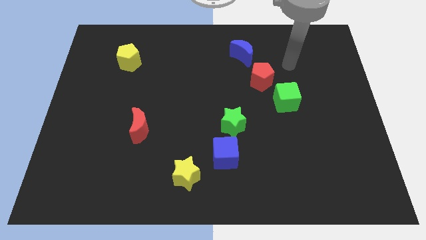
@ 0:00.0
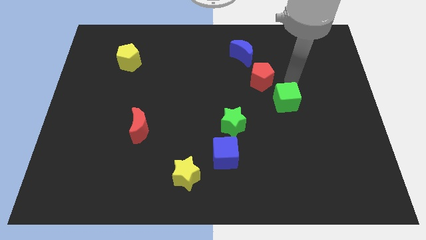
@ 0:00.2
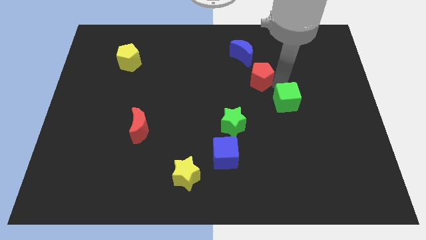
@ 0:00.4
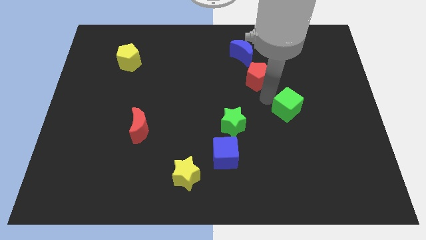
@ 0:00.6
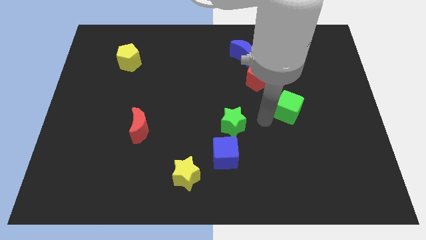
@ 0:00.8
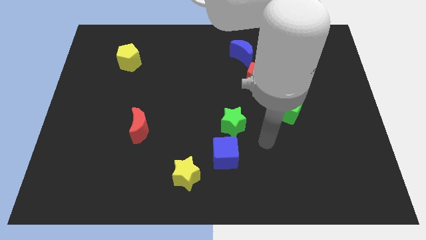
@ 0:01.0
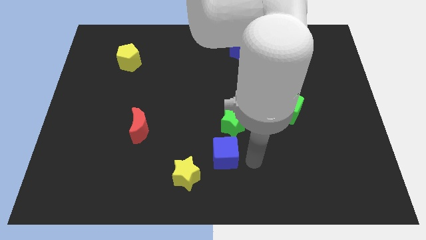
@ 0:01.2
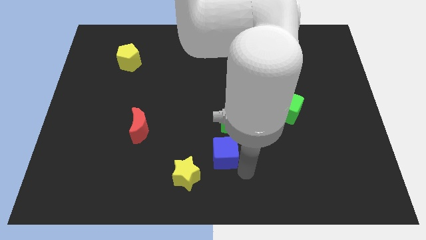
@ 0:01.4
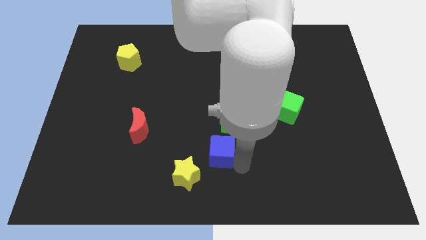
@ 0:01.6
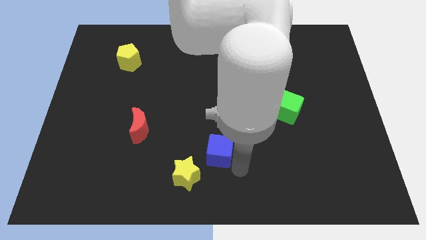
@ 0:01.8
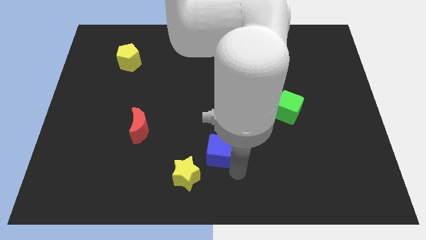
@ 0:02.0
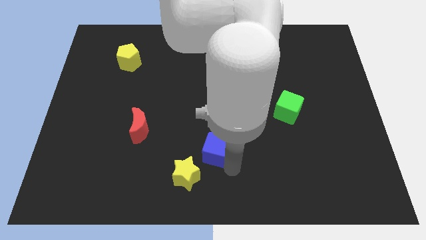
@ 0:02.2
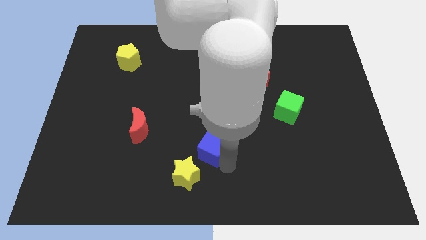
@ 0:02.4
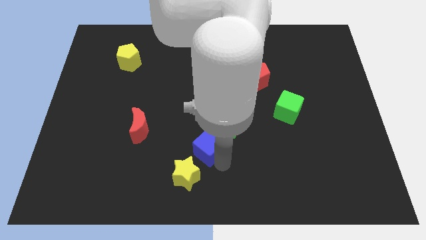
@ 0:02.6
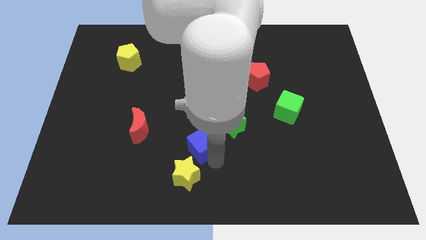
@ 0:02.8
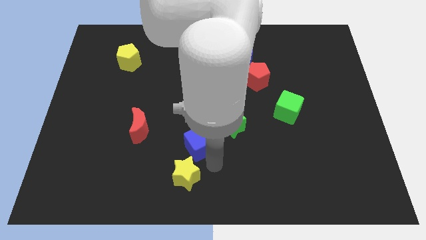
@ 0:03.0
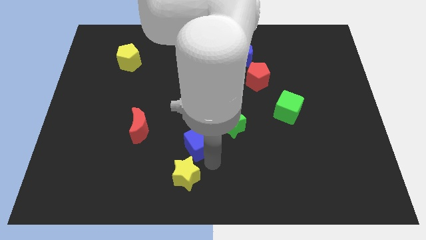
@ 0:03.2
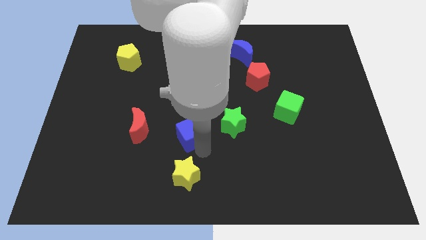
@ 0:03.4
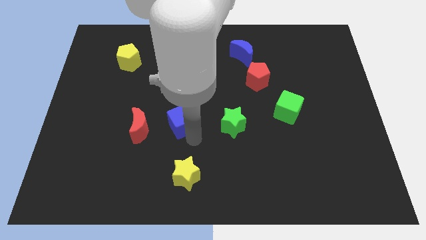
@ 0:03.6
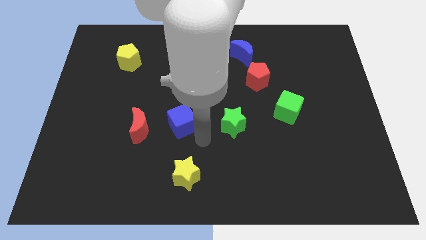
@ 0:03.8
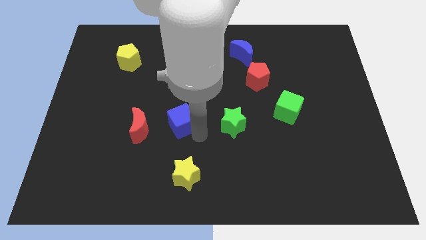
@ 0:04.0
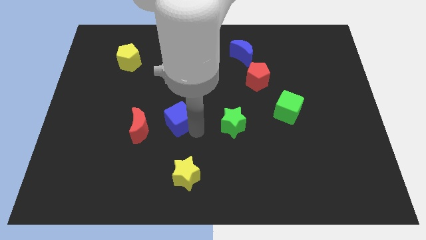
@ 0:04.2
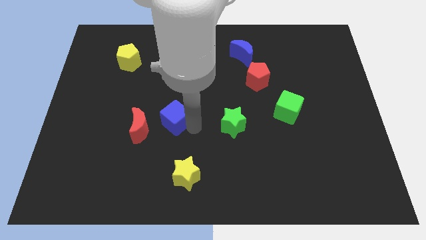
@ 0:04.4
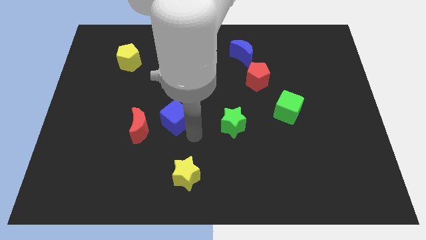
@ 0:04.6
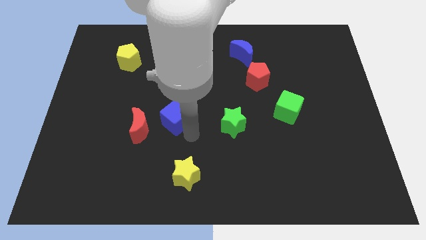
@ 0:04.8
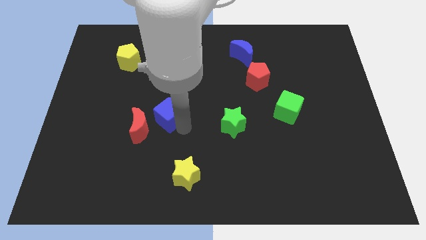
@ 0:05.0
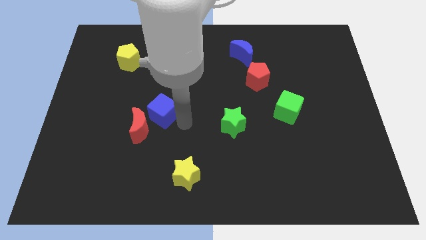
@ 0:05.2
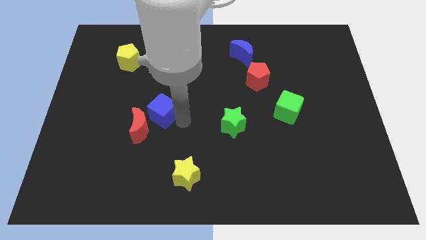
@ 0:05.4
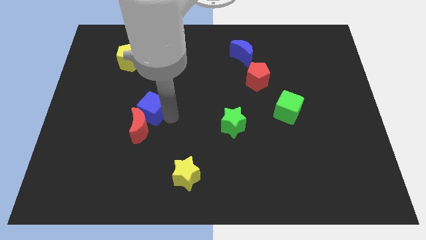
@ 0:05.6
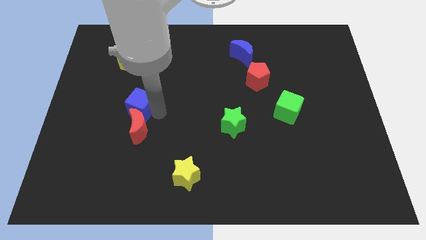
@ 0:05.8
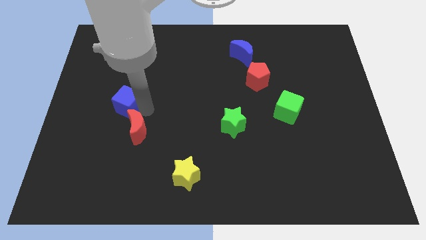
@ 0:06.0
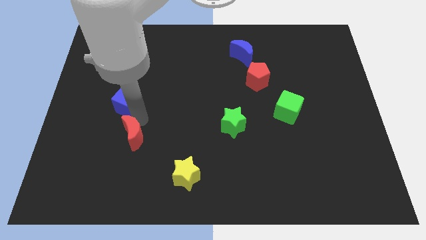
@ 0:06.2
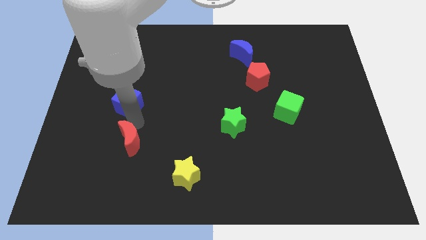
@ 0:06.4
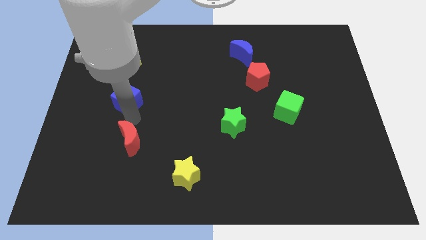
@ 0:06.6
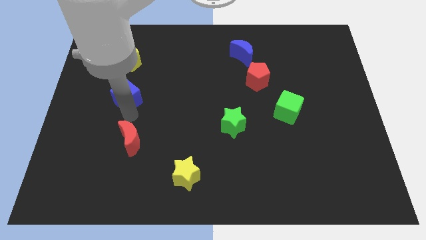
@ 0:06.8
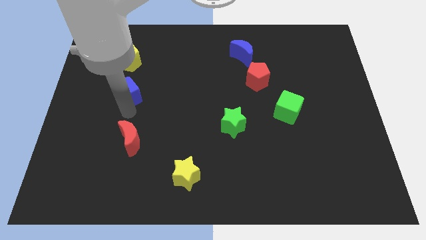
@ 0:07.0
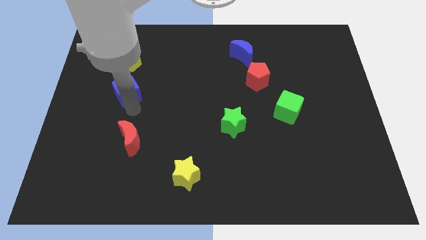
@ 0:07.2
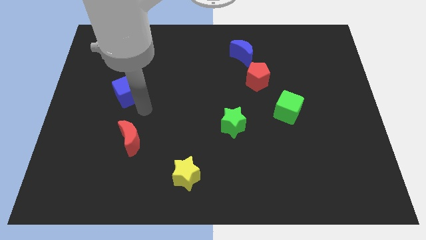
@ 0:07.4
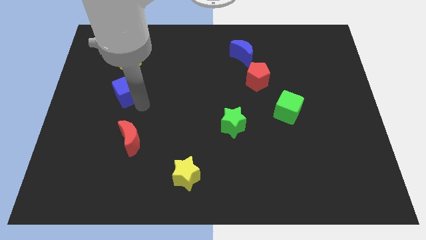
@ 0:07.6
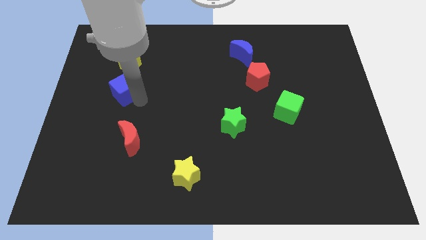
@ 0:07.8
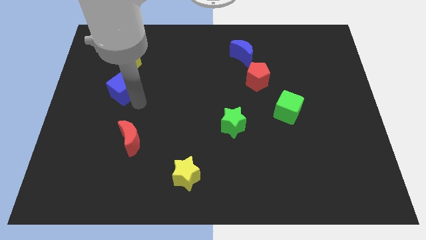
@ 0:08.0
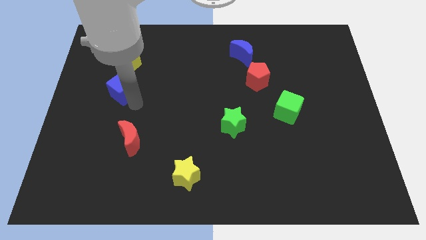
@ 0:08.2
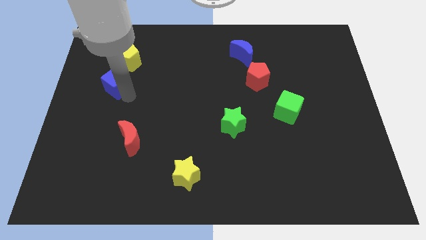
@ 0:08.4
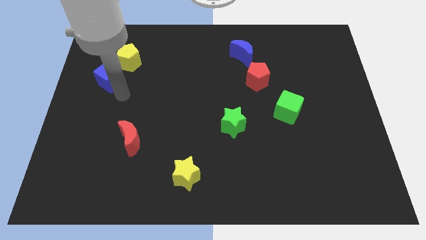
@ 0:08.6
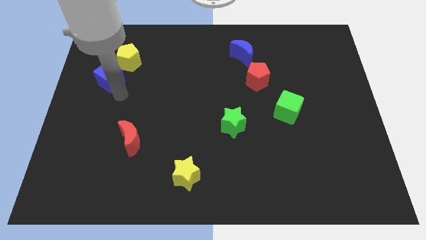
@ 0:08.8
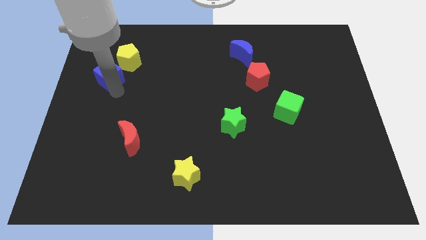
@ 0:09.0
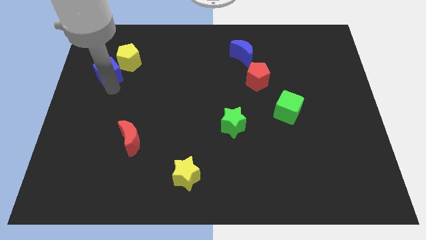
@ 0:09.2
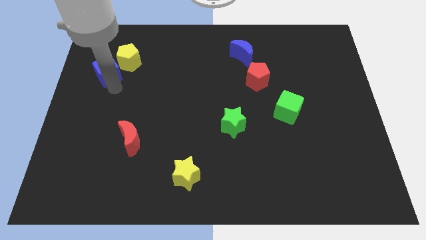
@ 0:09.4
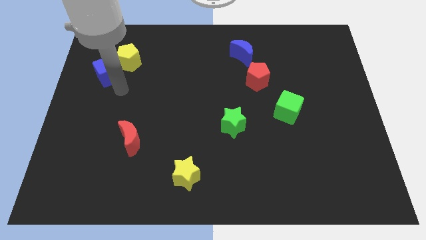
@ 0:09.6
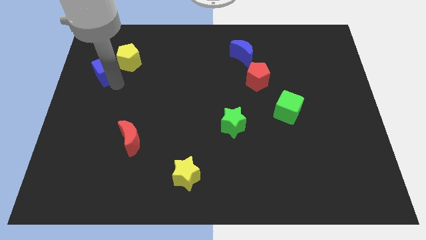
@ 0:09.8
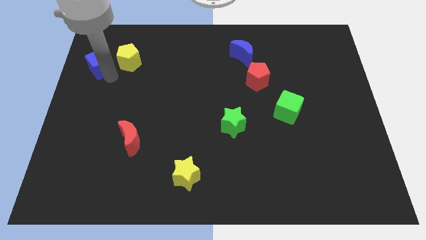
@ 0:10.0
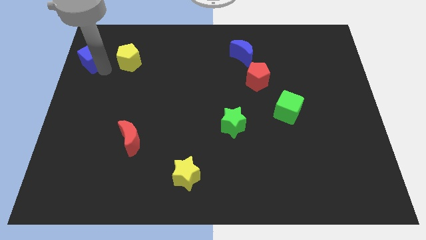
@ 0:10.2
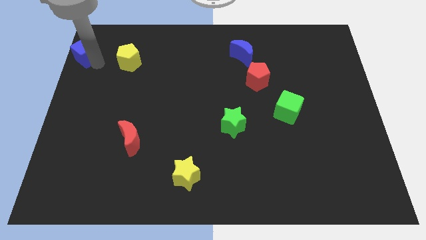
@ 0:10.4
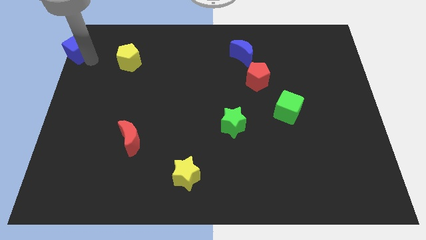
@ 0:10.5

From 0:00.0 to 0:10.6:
push the blue cube to the top left corner

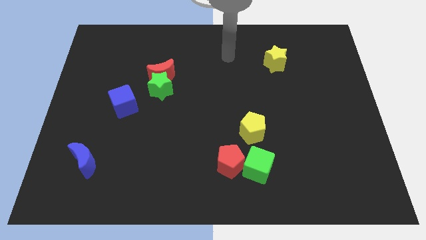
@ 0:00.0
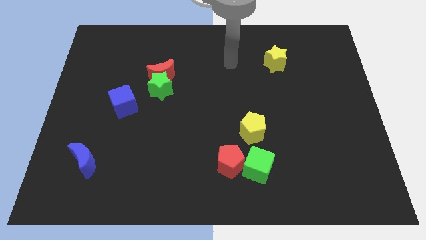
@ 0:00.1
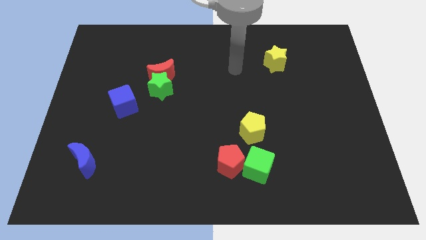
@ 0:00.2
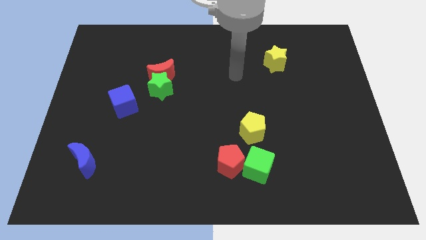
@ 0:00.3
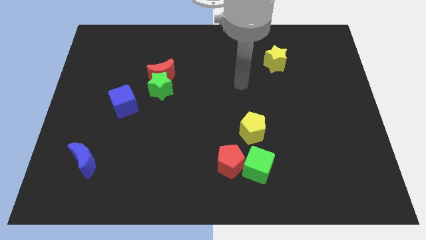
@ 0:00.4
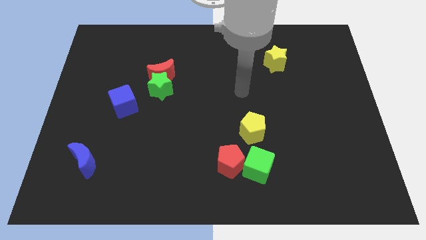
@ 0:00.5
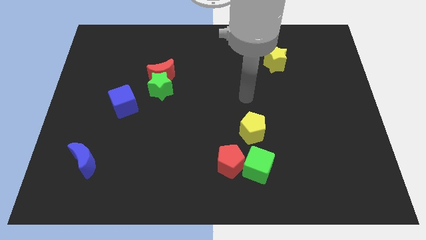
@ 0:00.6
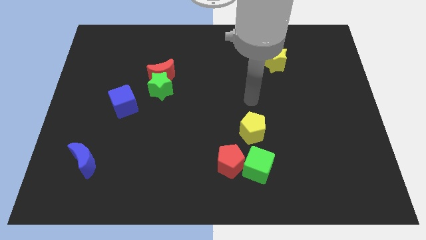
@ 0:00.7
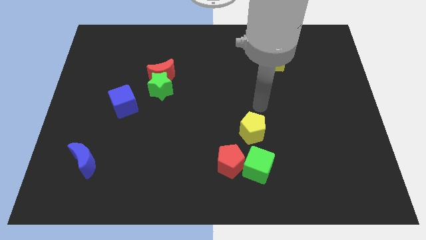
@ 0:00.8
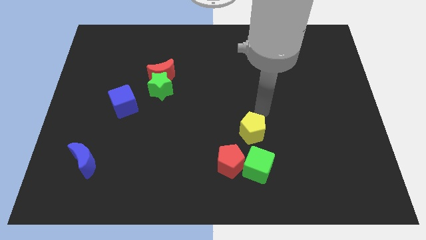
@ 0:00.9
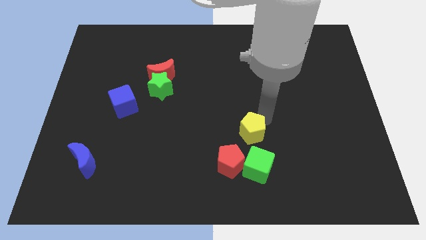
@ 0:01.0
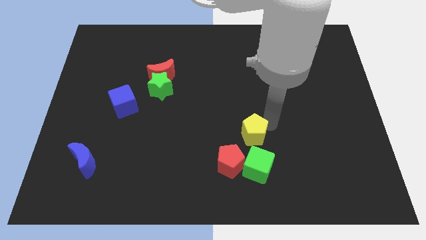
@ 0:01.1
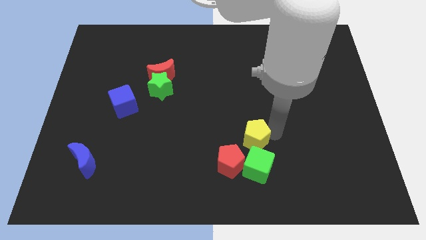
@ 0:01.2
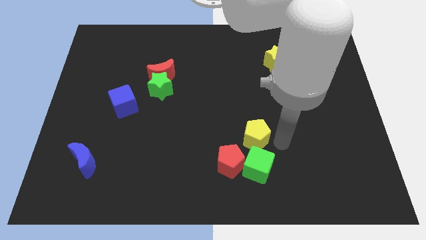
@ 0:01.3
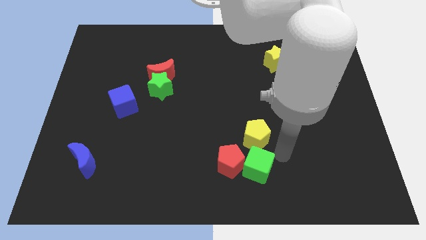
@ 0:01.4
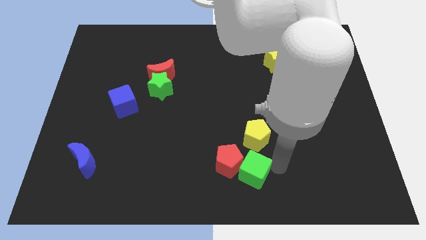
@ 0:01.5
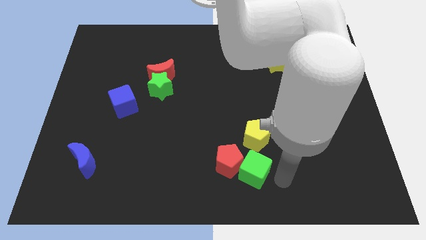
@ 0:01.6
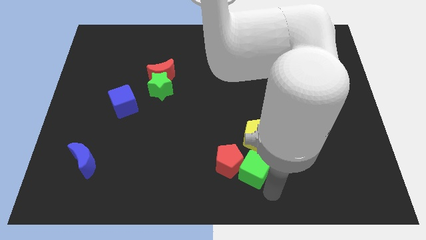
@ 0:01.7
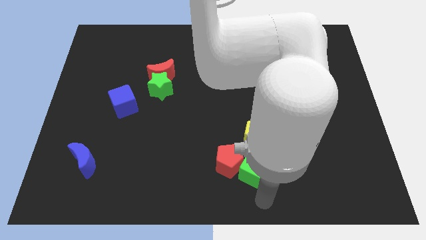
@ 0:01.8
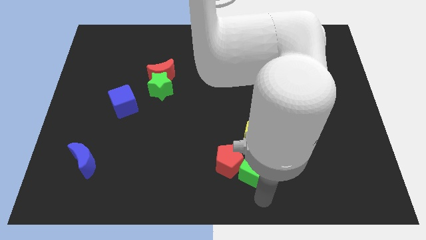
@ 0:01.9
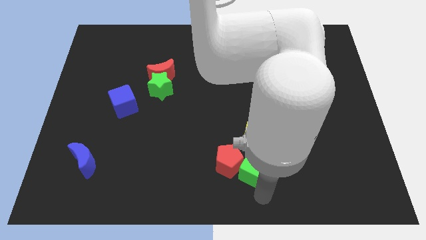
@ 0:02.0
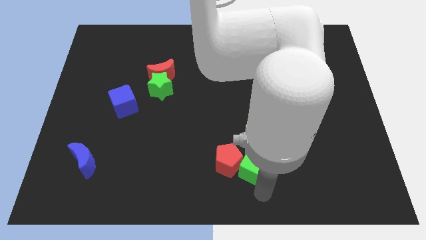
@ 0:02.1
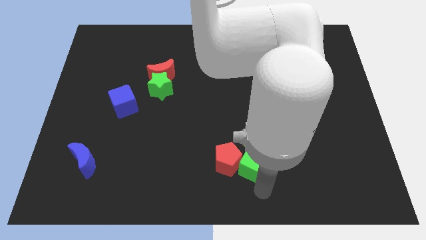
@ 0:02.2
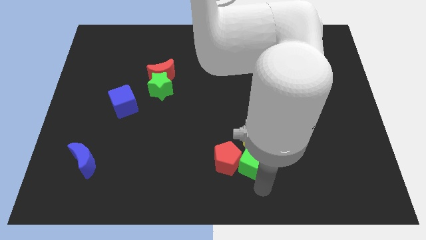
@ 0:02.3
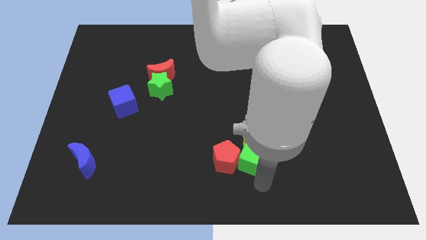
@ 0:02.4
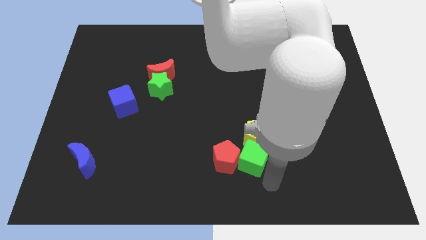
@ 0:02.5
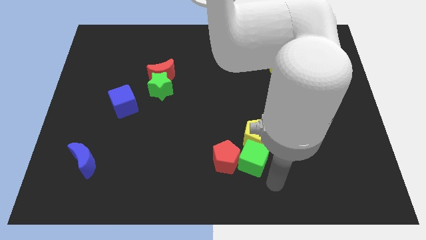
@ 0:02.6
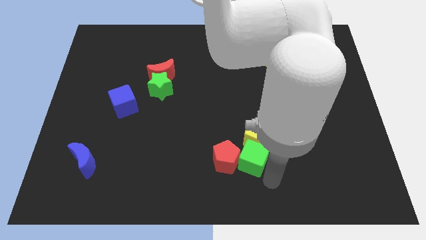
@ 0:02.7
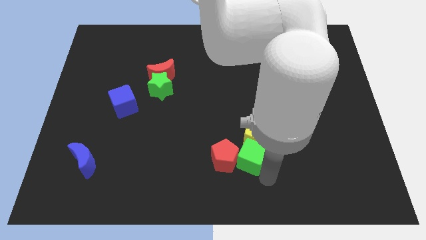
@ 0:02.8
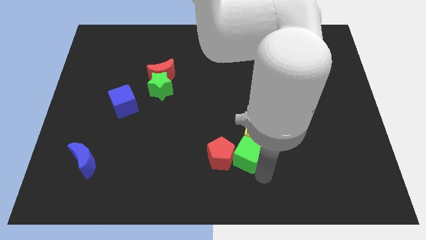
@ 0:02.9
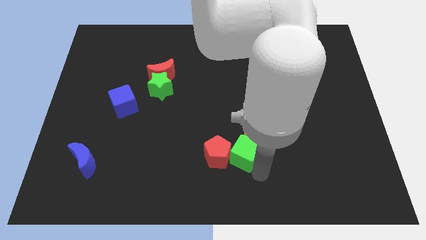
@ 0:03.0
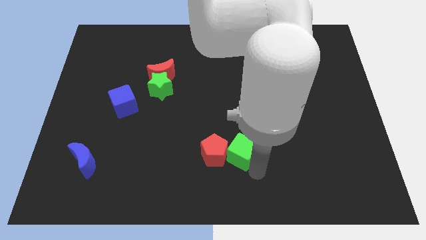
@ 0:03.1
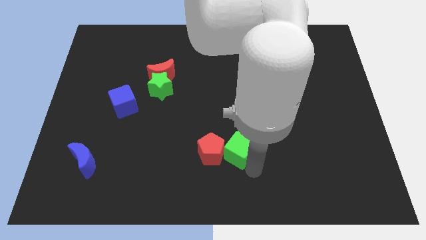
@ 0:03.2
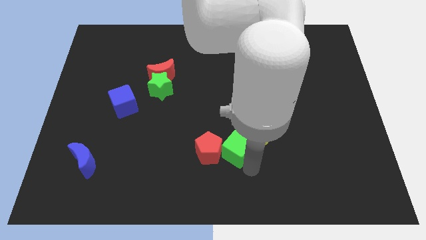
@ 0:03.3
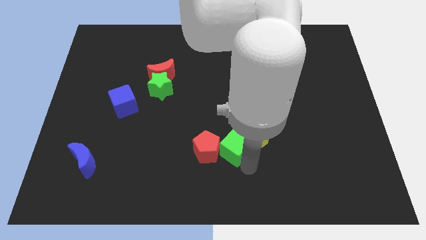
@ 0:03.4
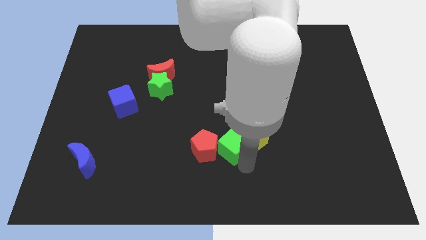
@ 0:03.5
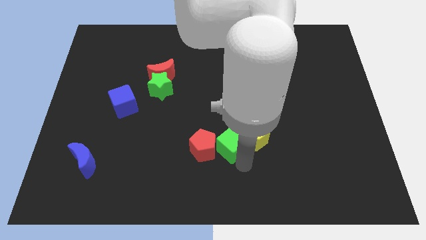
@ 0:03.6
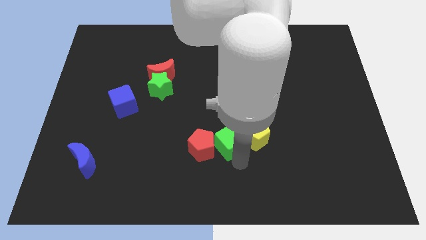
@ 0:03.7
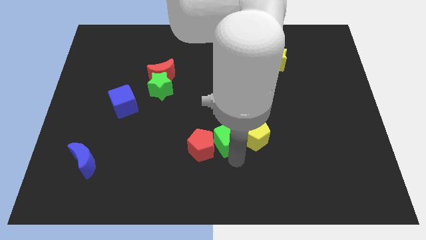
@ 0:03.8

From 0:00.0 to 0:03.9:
put the green cube to the middle
